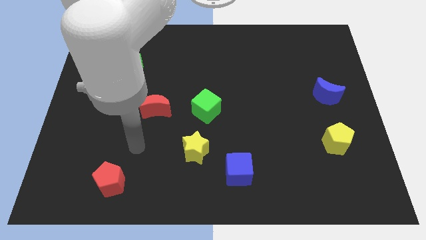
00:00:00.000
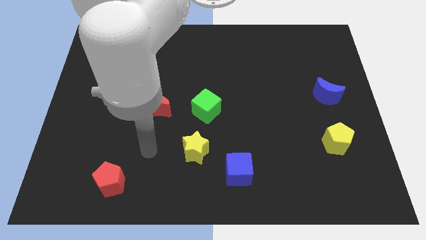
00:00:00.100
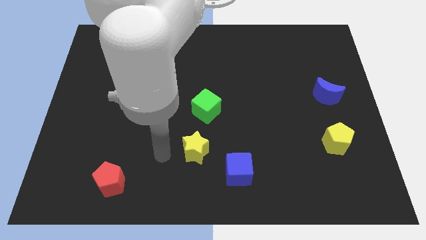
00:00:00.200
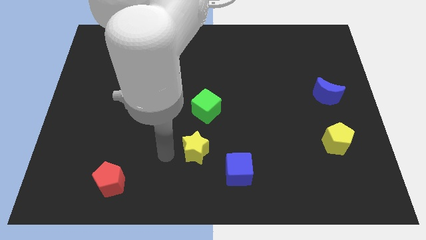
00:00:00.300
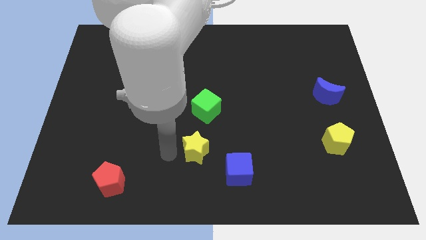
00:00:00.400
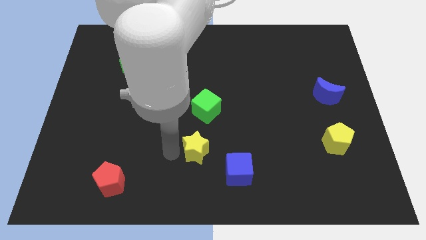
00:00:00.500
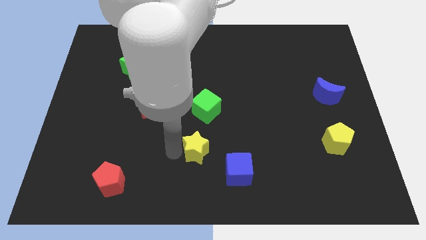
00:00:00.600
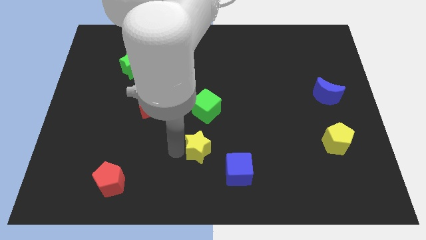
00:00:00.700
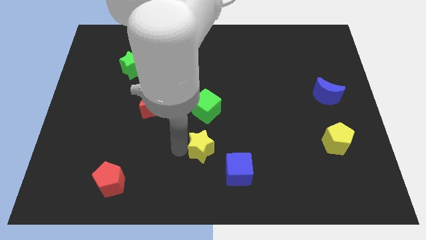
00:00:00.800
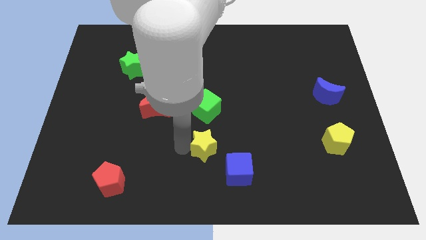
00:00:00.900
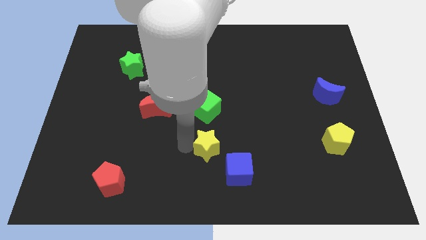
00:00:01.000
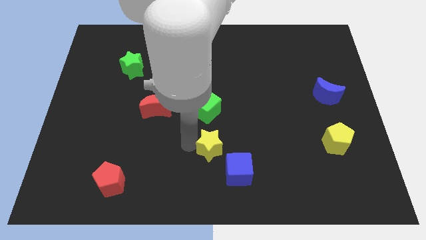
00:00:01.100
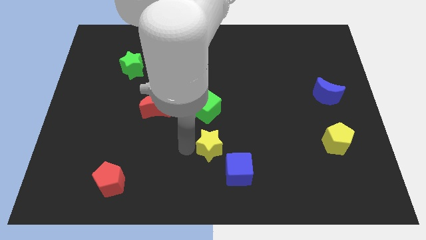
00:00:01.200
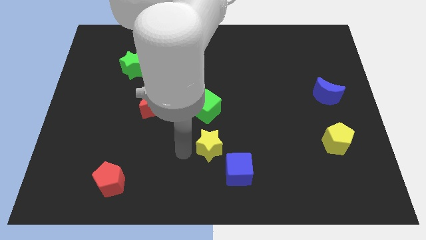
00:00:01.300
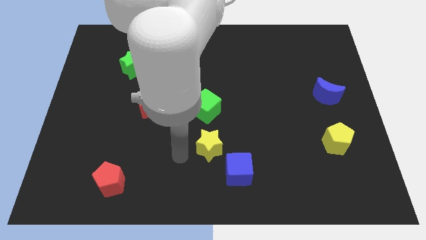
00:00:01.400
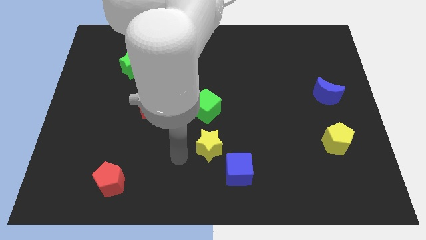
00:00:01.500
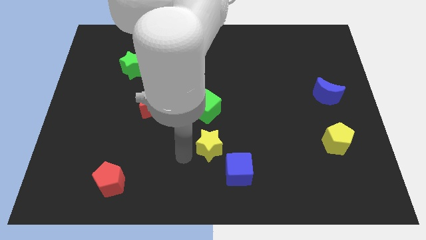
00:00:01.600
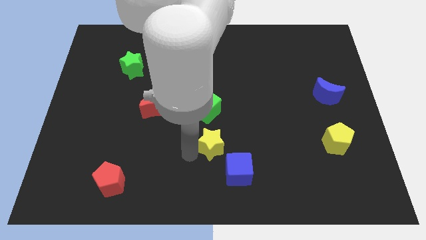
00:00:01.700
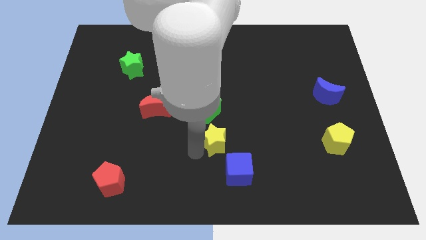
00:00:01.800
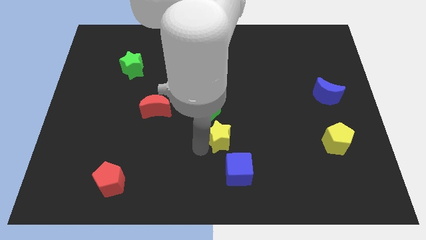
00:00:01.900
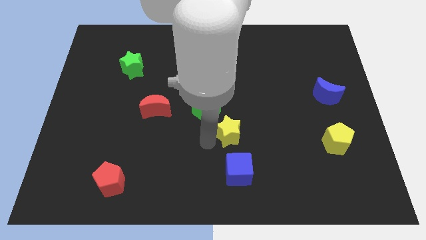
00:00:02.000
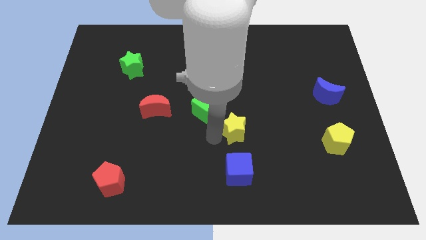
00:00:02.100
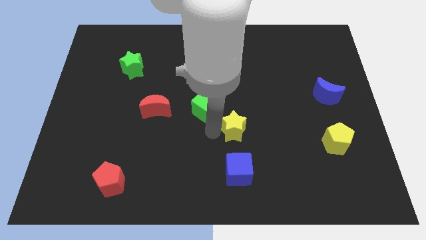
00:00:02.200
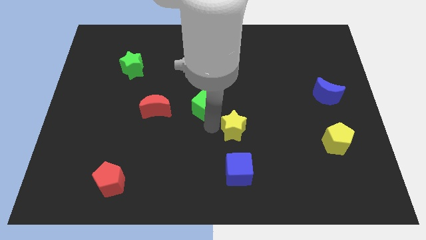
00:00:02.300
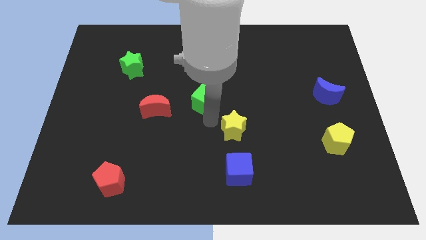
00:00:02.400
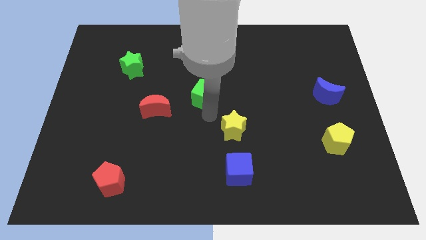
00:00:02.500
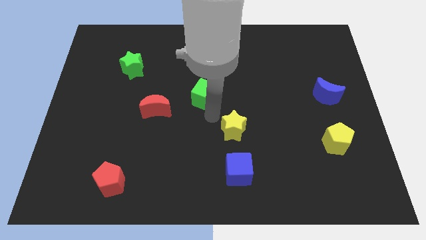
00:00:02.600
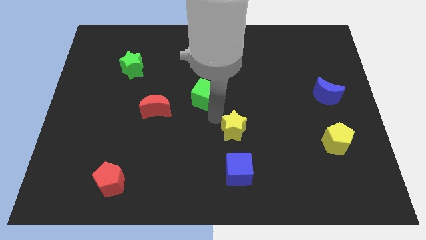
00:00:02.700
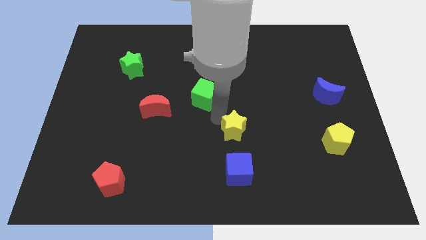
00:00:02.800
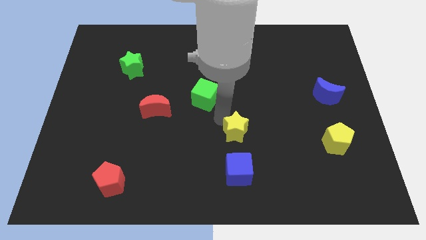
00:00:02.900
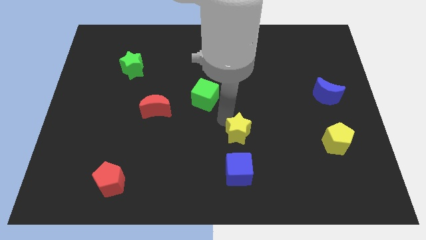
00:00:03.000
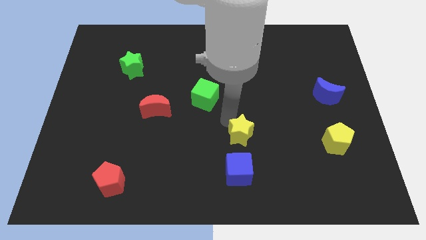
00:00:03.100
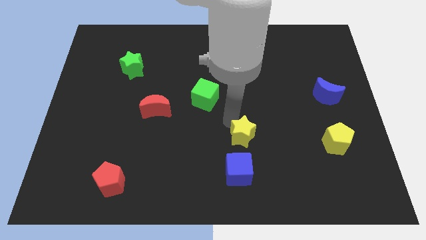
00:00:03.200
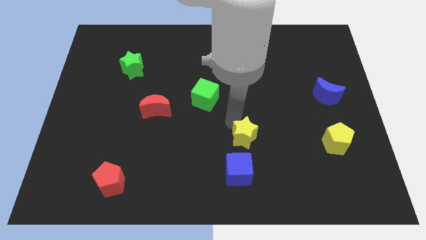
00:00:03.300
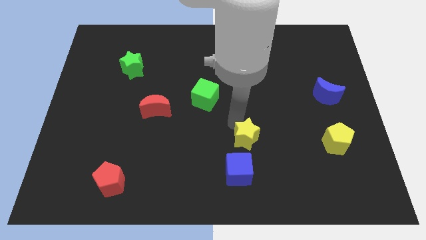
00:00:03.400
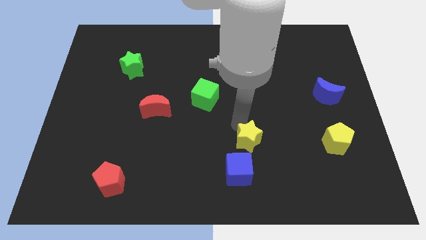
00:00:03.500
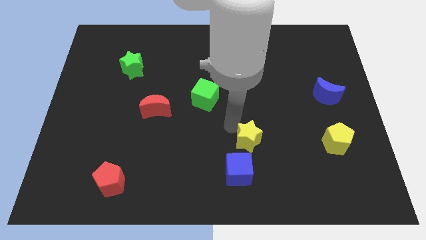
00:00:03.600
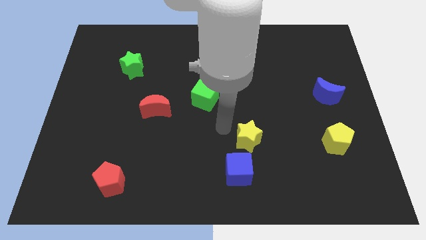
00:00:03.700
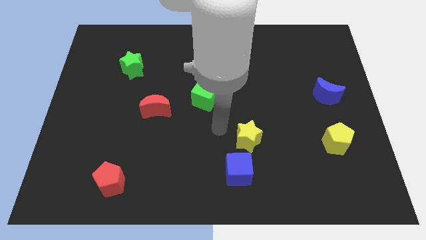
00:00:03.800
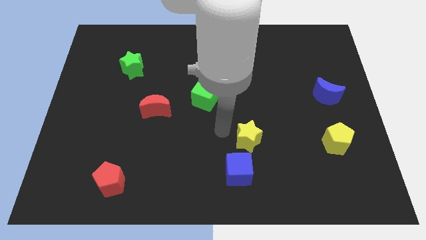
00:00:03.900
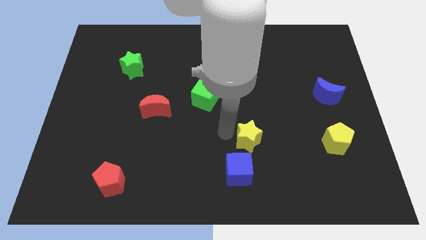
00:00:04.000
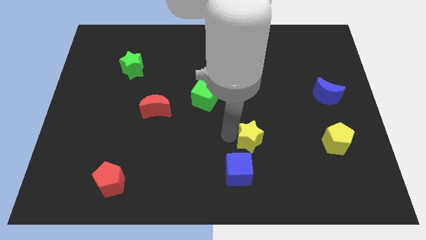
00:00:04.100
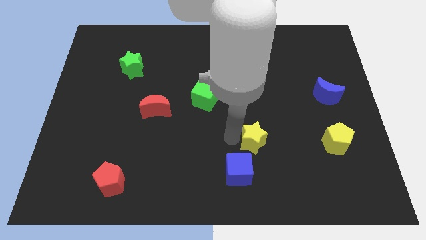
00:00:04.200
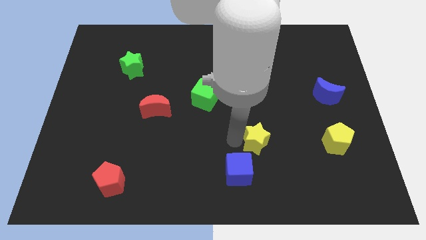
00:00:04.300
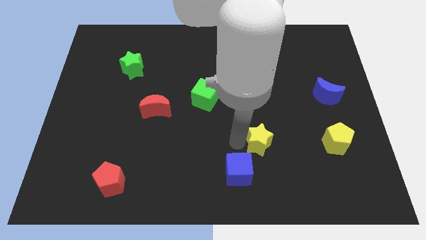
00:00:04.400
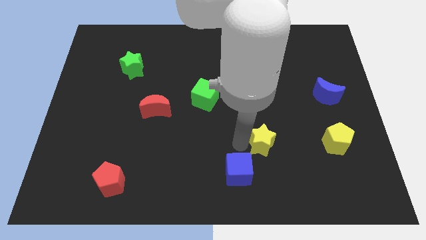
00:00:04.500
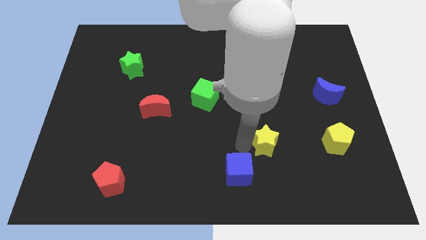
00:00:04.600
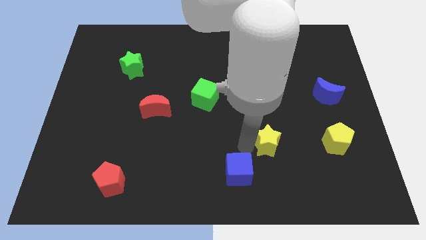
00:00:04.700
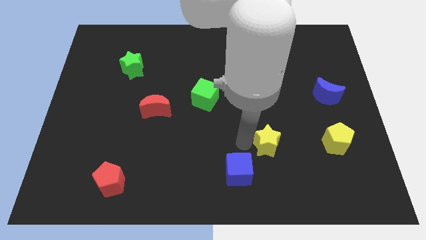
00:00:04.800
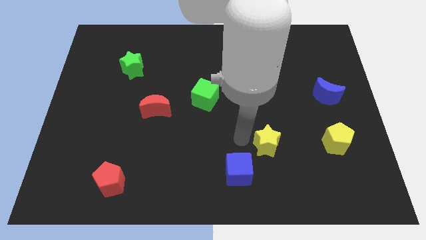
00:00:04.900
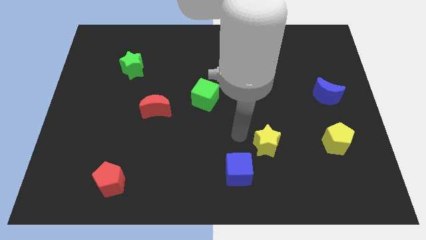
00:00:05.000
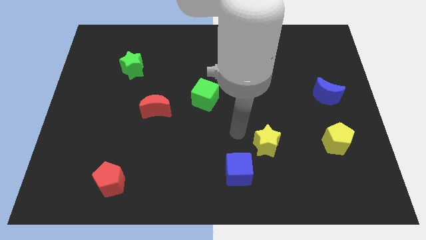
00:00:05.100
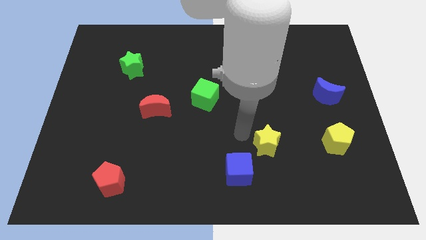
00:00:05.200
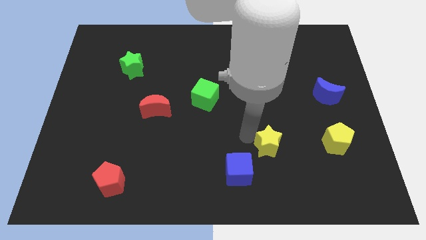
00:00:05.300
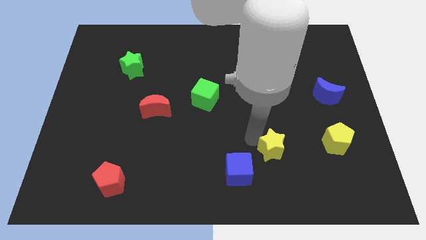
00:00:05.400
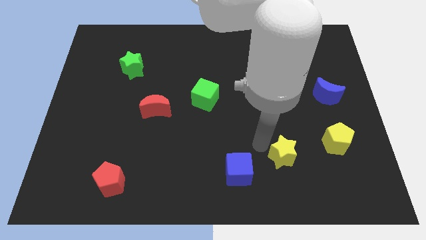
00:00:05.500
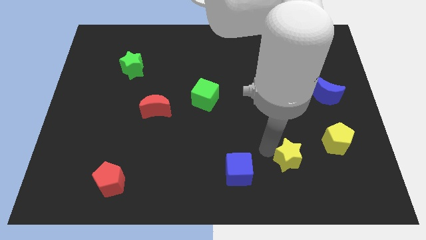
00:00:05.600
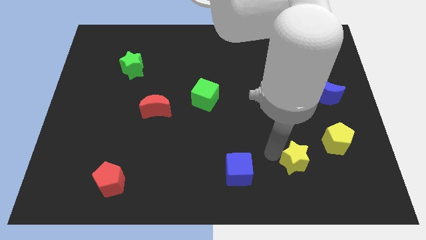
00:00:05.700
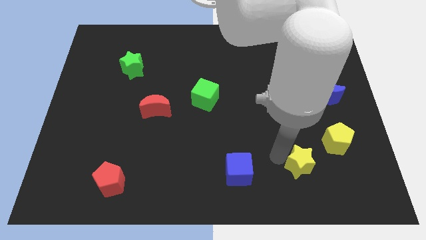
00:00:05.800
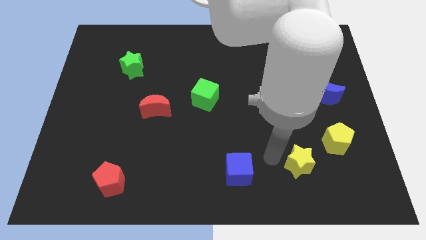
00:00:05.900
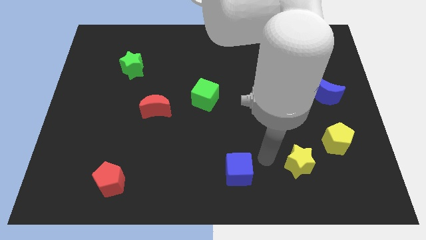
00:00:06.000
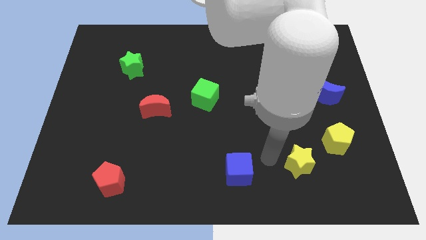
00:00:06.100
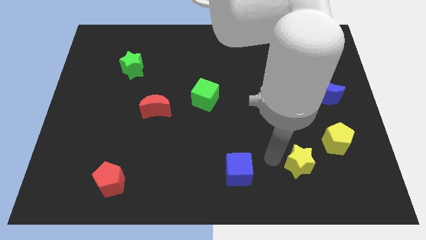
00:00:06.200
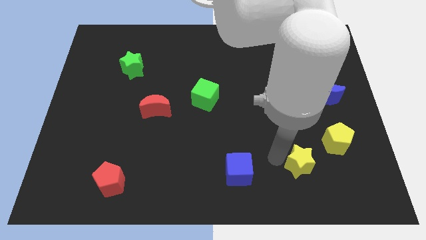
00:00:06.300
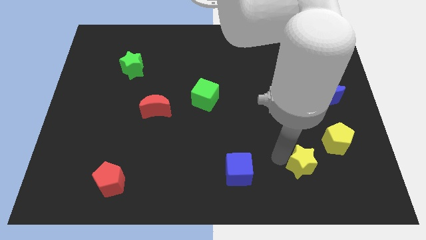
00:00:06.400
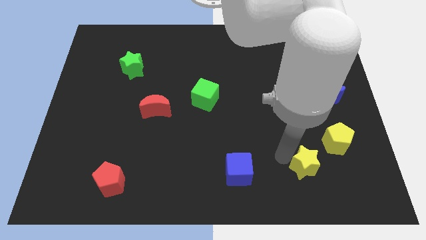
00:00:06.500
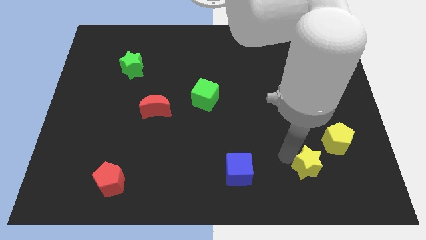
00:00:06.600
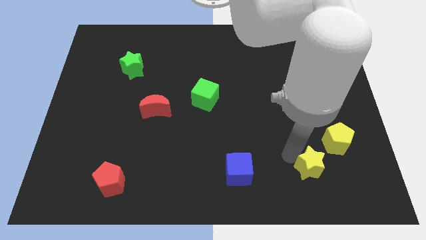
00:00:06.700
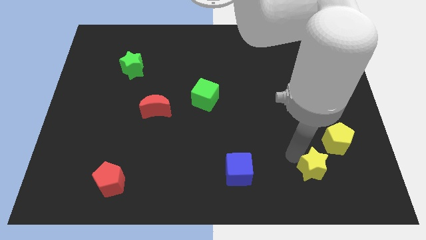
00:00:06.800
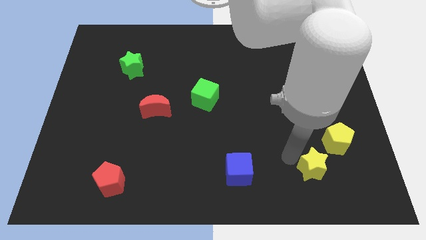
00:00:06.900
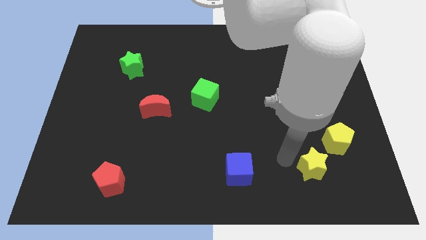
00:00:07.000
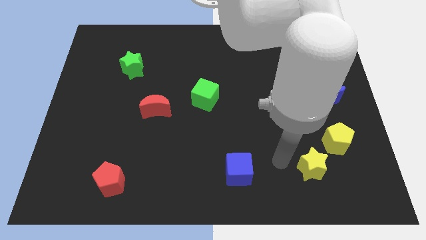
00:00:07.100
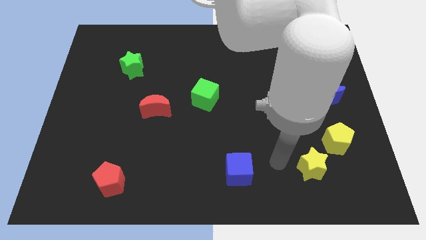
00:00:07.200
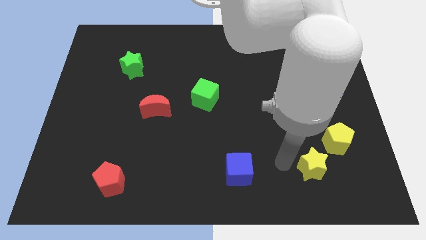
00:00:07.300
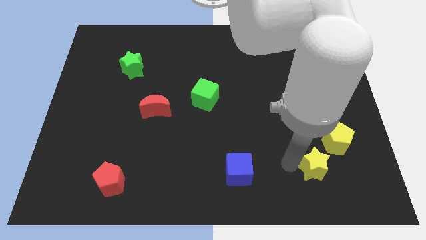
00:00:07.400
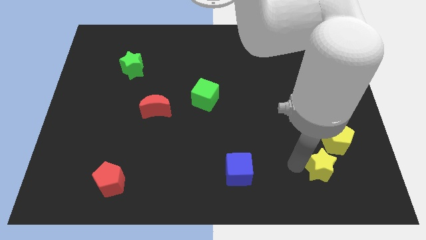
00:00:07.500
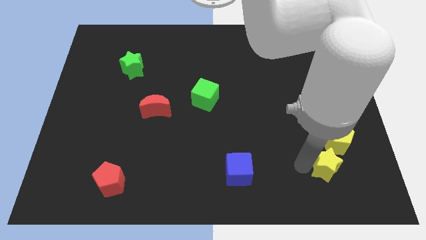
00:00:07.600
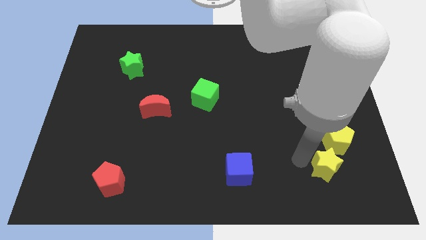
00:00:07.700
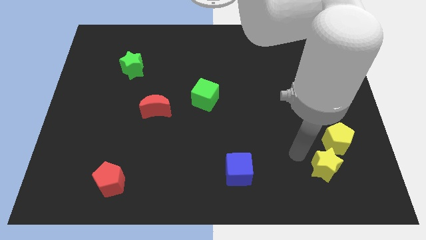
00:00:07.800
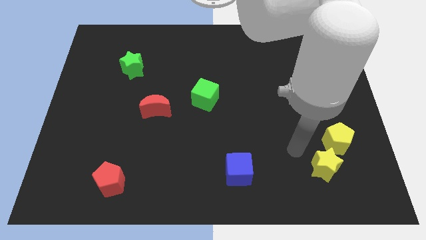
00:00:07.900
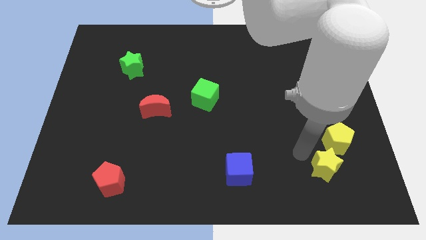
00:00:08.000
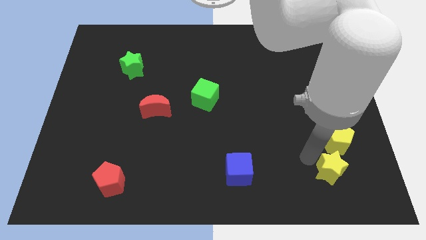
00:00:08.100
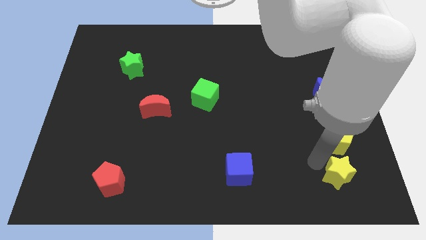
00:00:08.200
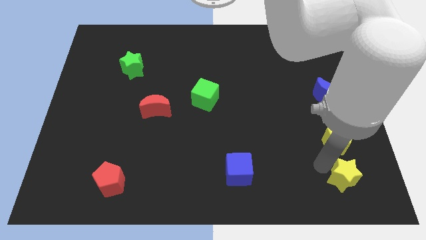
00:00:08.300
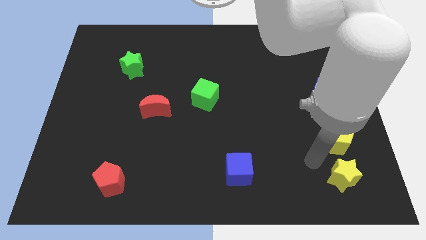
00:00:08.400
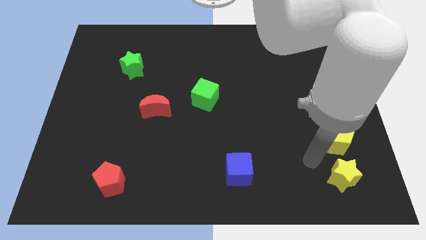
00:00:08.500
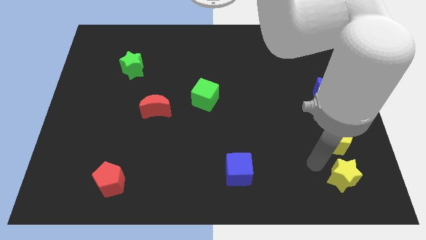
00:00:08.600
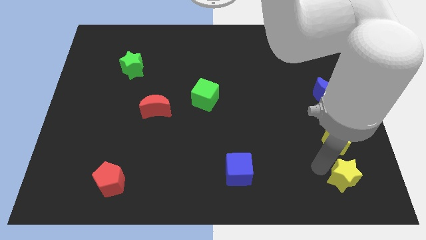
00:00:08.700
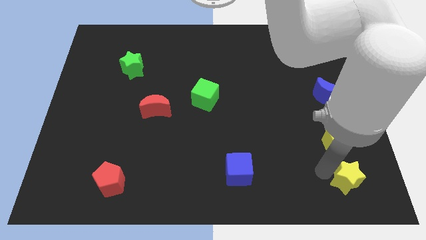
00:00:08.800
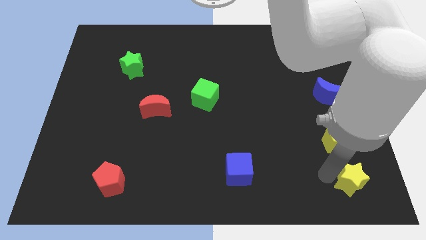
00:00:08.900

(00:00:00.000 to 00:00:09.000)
push the yellow star to the bottom right corner
